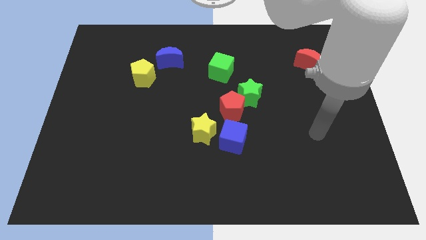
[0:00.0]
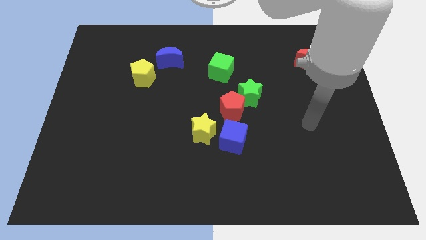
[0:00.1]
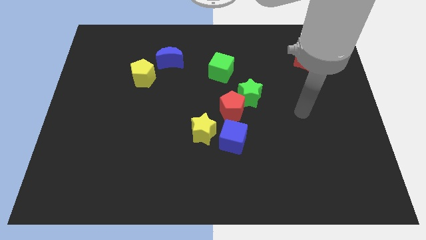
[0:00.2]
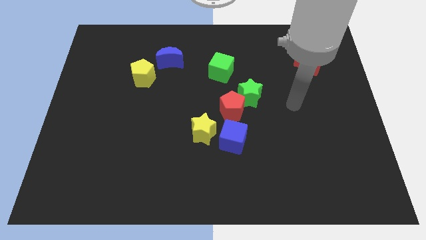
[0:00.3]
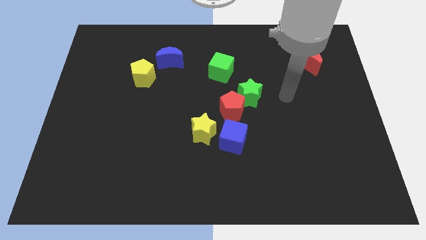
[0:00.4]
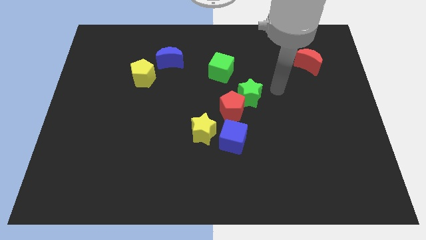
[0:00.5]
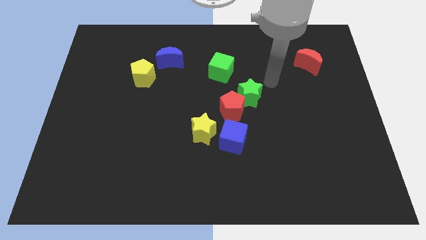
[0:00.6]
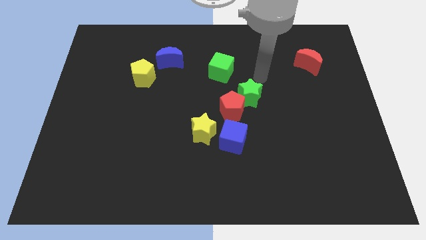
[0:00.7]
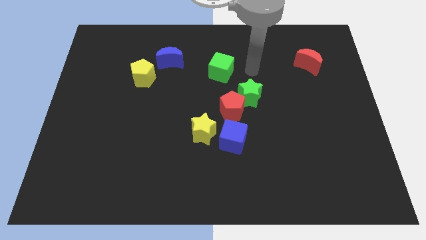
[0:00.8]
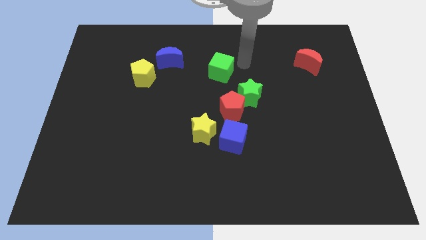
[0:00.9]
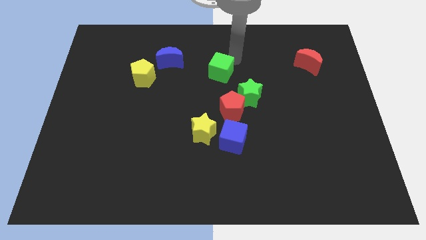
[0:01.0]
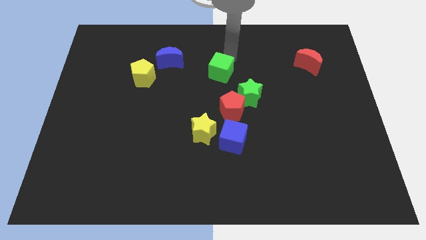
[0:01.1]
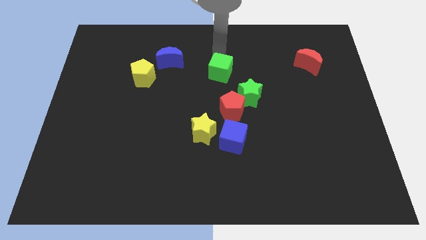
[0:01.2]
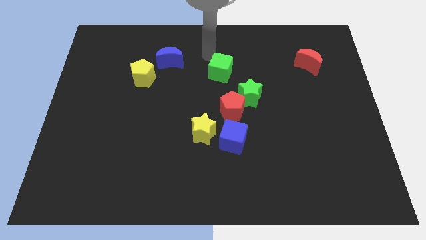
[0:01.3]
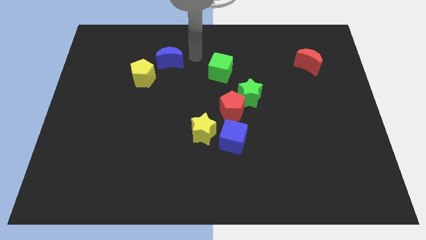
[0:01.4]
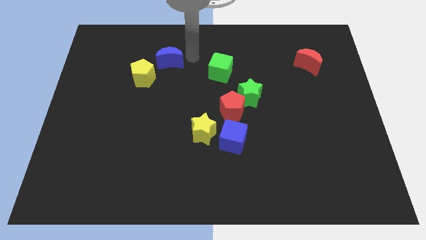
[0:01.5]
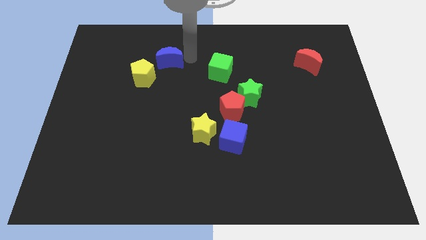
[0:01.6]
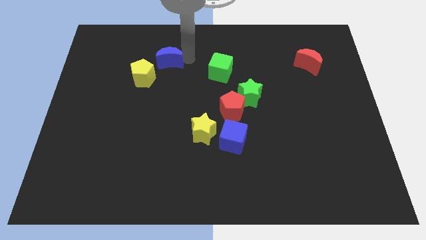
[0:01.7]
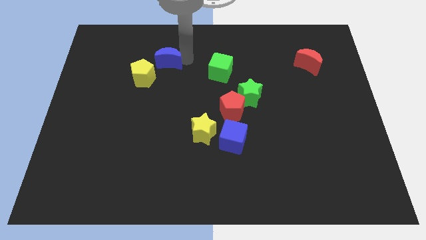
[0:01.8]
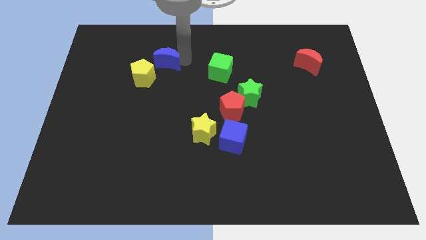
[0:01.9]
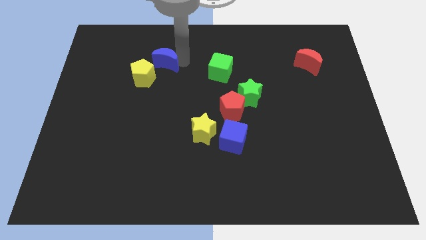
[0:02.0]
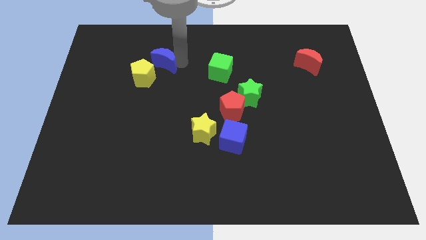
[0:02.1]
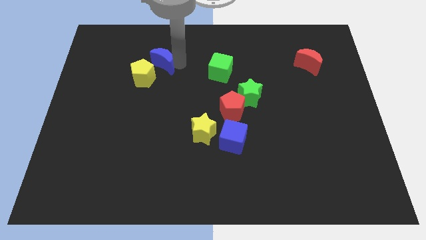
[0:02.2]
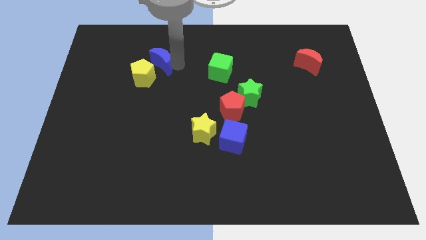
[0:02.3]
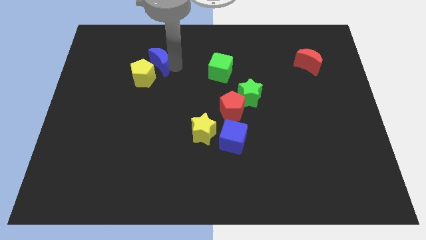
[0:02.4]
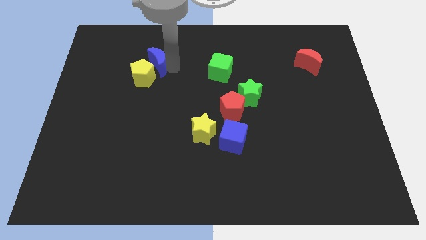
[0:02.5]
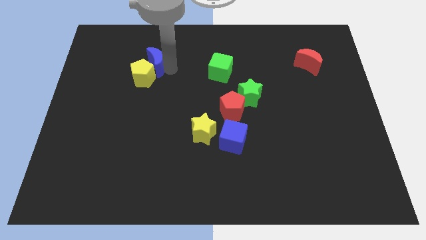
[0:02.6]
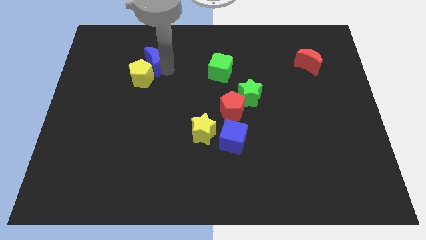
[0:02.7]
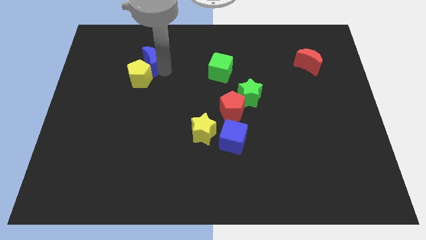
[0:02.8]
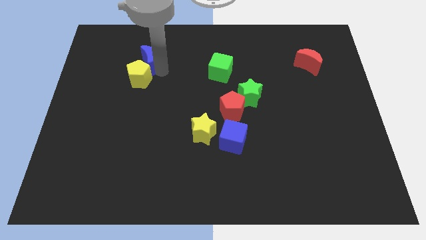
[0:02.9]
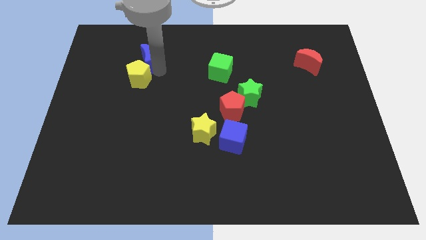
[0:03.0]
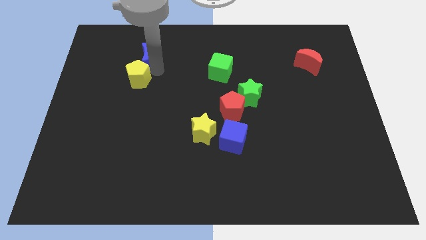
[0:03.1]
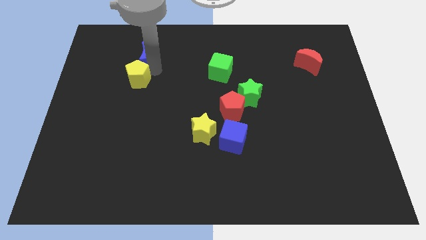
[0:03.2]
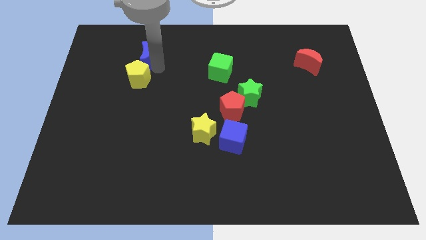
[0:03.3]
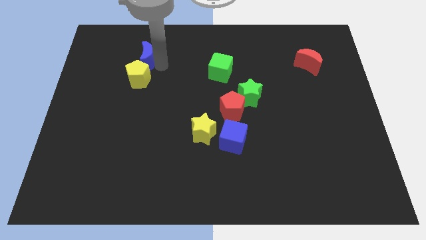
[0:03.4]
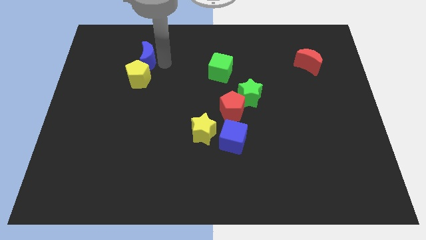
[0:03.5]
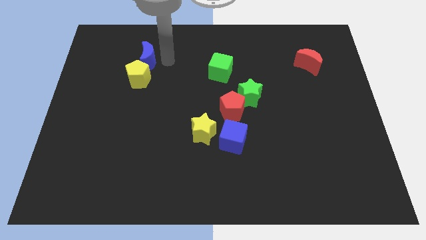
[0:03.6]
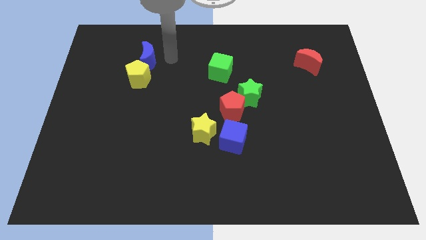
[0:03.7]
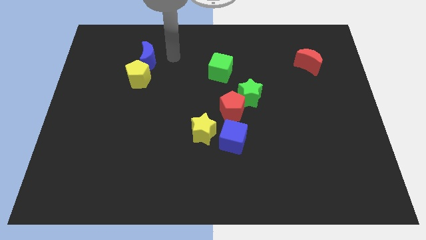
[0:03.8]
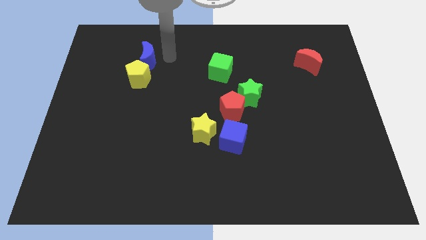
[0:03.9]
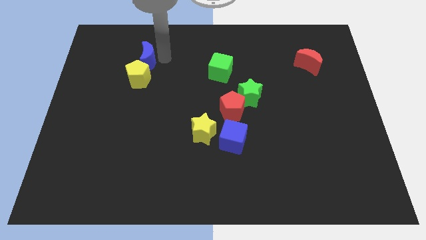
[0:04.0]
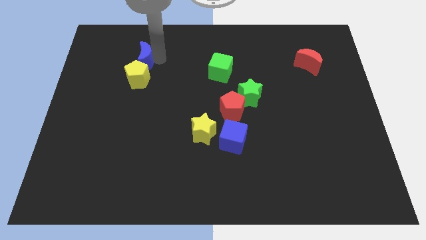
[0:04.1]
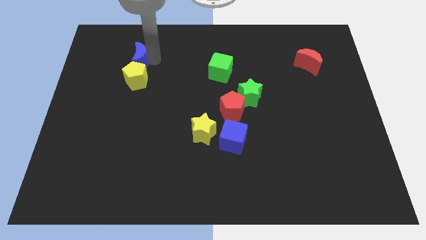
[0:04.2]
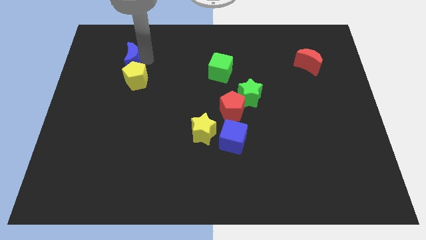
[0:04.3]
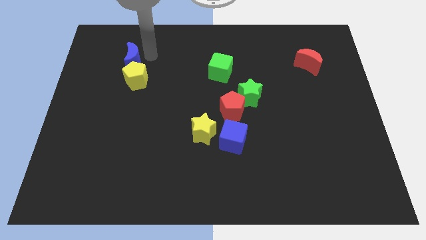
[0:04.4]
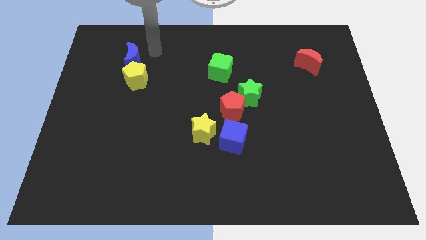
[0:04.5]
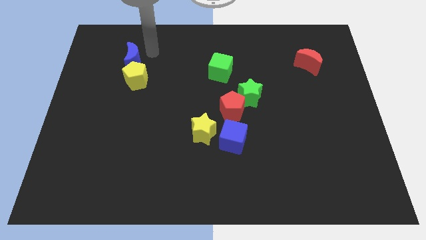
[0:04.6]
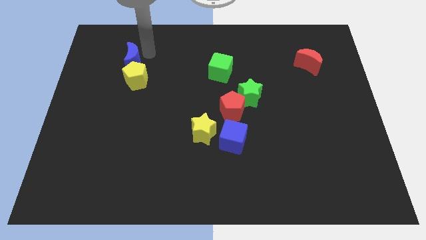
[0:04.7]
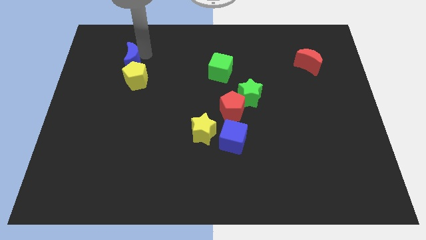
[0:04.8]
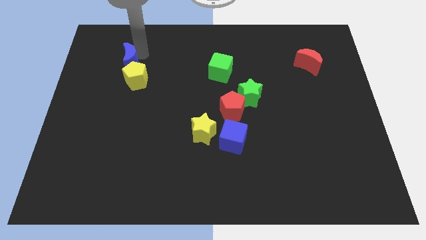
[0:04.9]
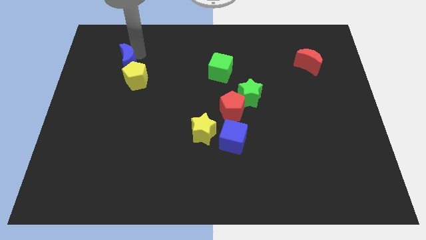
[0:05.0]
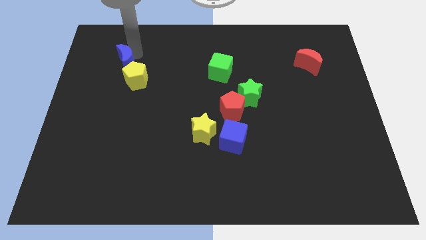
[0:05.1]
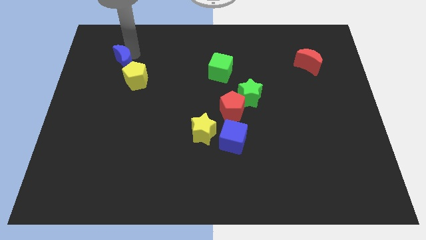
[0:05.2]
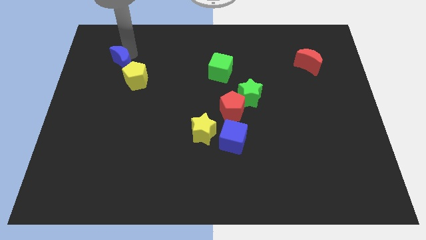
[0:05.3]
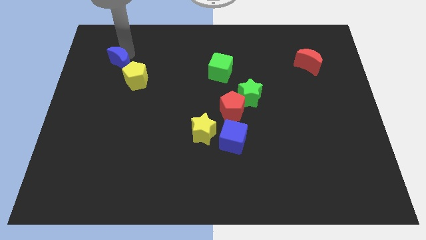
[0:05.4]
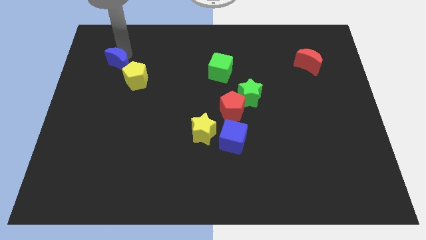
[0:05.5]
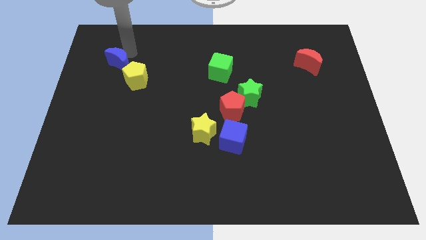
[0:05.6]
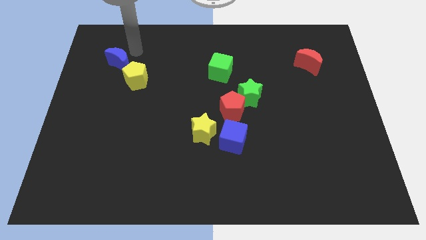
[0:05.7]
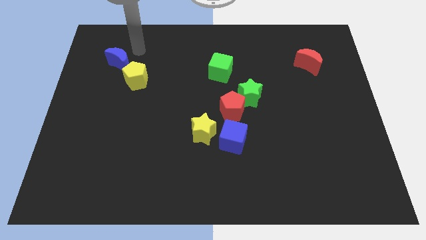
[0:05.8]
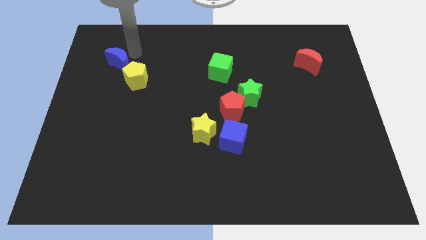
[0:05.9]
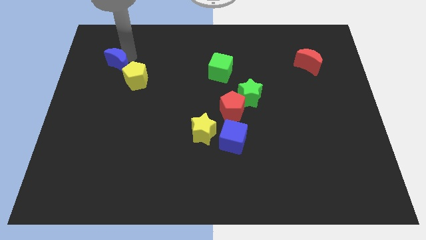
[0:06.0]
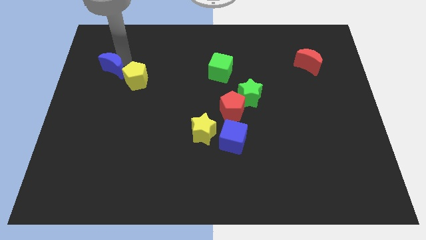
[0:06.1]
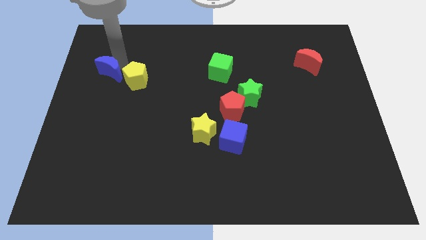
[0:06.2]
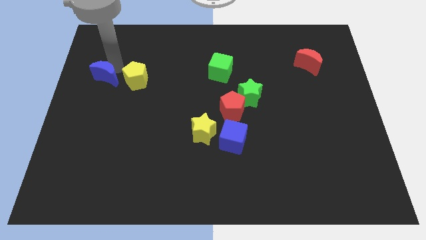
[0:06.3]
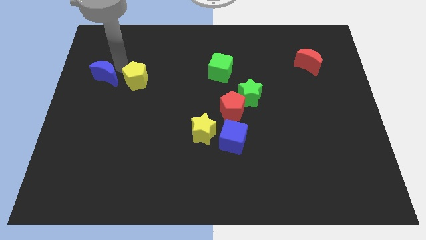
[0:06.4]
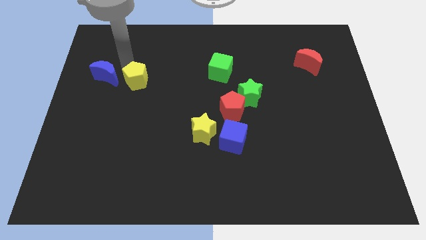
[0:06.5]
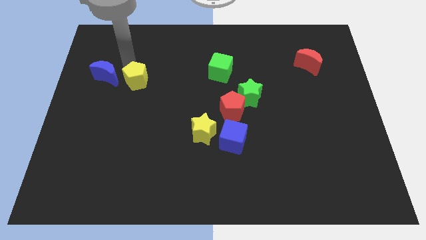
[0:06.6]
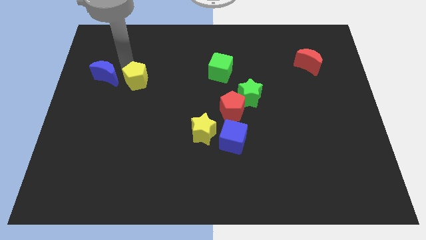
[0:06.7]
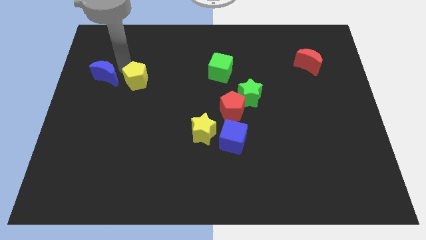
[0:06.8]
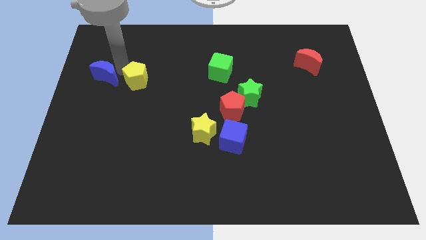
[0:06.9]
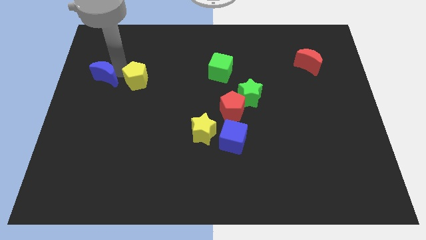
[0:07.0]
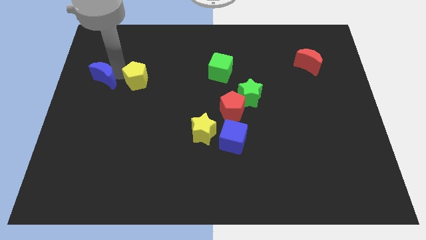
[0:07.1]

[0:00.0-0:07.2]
move the blue moon to the left side of the board

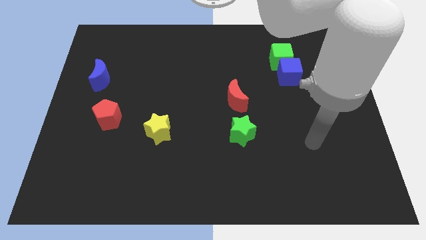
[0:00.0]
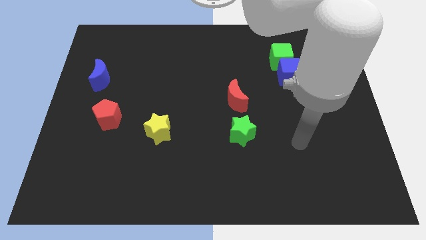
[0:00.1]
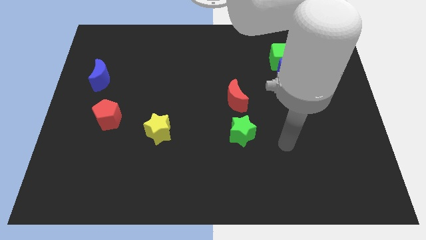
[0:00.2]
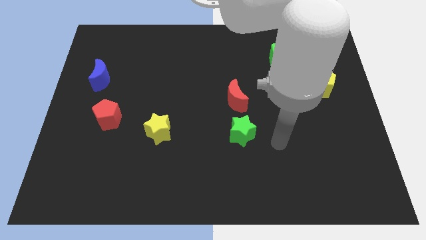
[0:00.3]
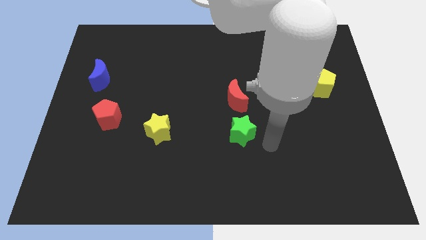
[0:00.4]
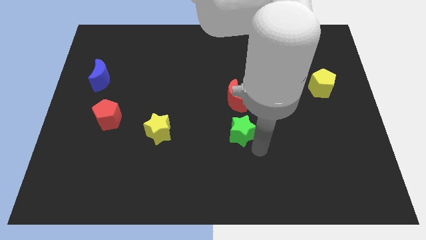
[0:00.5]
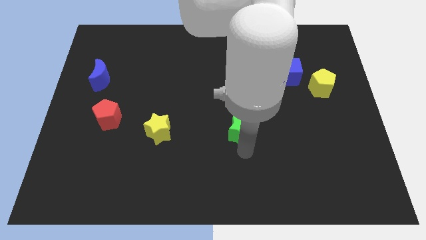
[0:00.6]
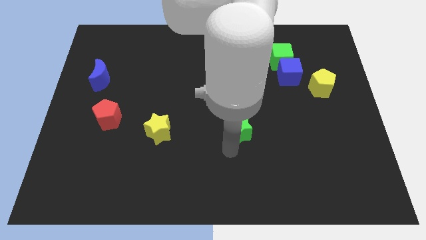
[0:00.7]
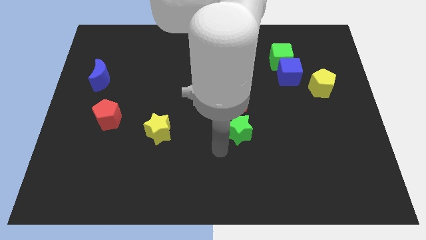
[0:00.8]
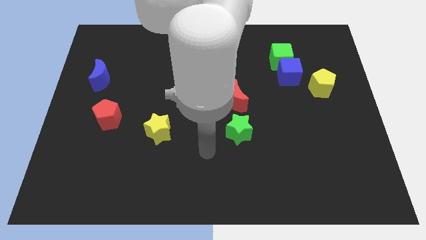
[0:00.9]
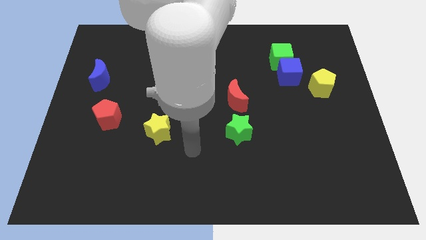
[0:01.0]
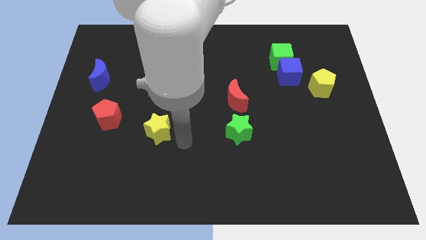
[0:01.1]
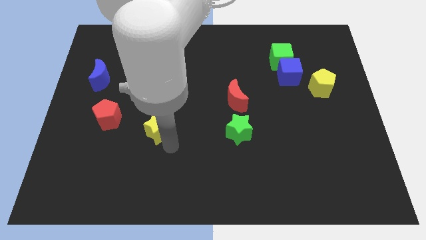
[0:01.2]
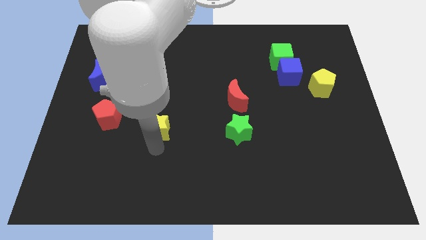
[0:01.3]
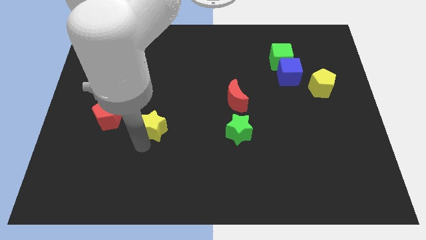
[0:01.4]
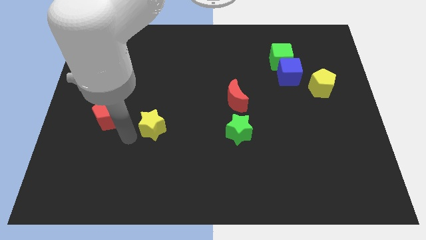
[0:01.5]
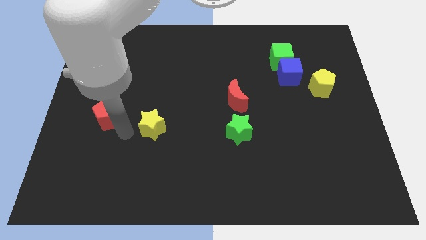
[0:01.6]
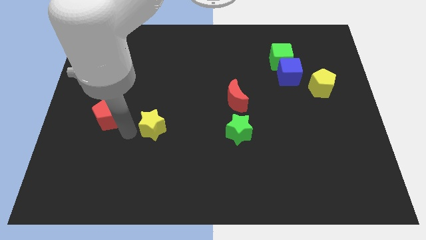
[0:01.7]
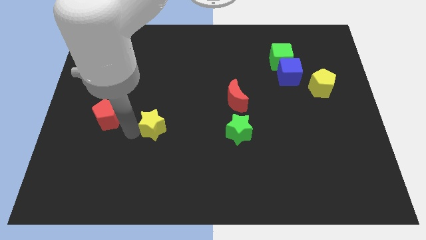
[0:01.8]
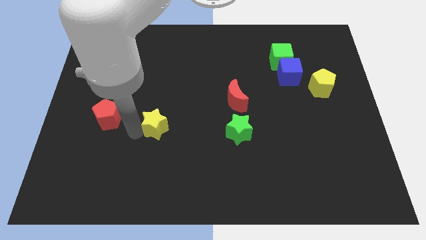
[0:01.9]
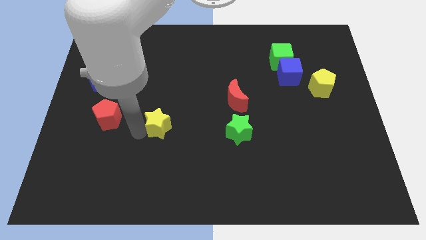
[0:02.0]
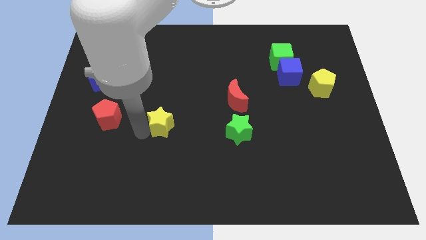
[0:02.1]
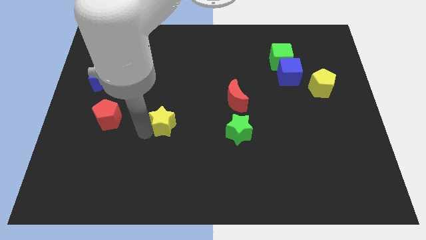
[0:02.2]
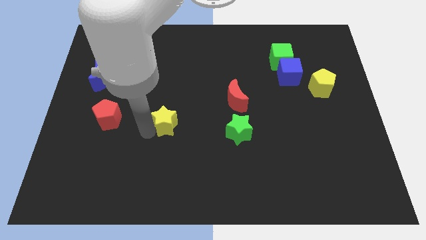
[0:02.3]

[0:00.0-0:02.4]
move the yellow star to the center
